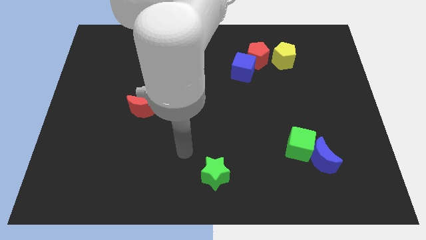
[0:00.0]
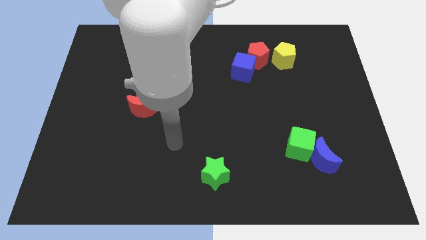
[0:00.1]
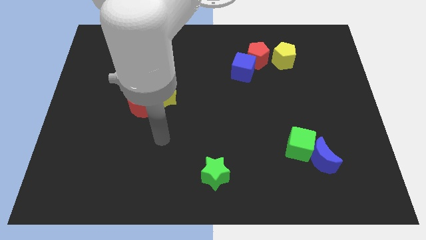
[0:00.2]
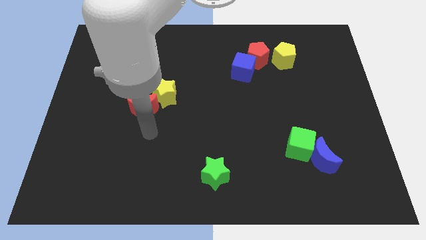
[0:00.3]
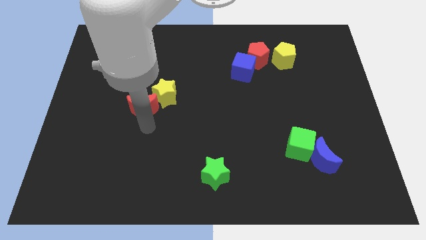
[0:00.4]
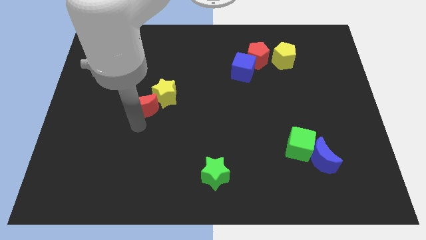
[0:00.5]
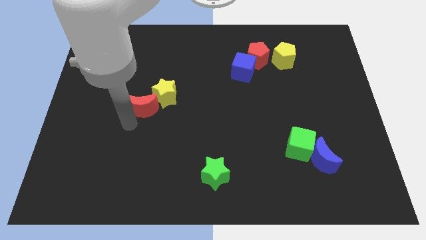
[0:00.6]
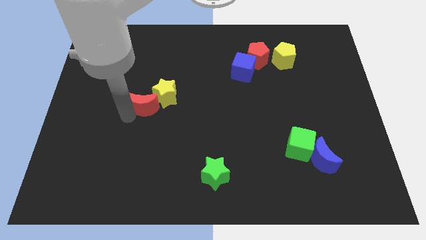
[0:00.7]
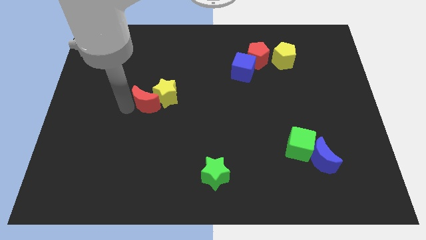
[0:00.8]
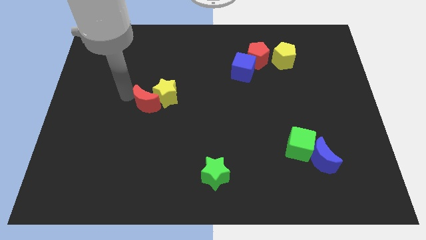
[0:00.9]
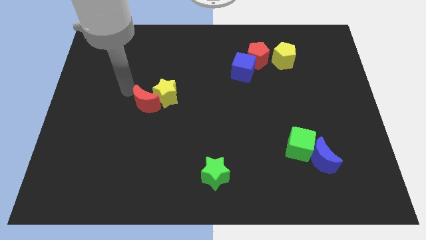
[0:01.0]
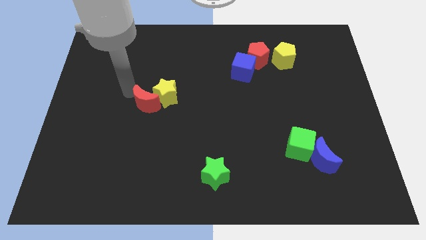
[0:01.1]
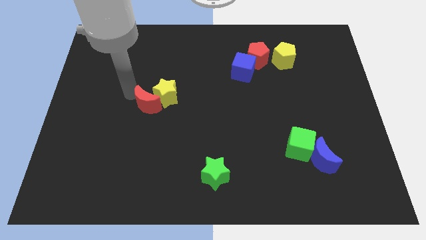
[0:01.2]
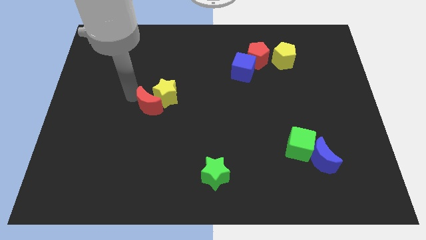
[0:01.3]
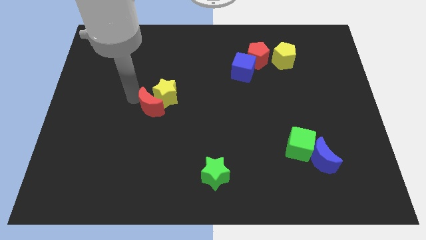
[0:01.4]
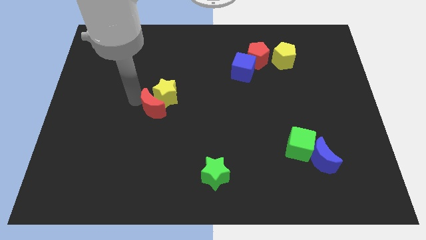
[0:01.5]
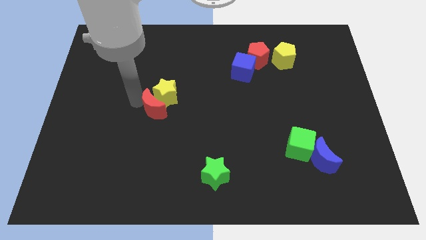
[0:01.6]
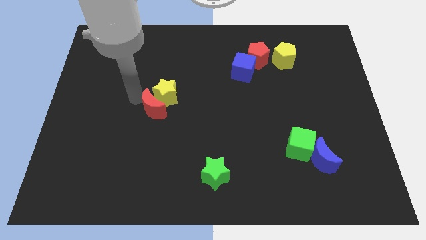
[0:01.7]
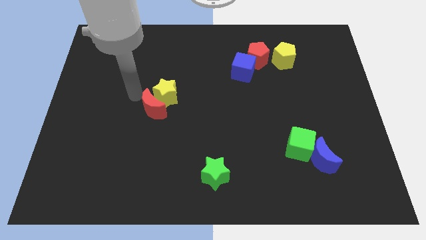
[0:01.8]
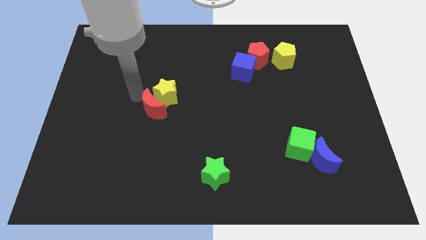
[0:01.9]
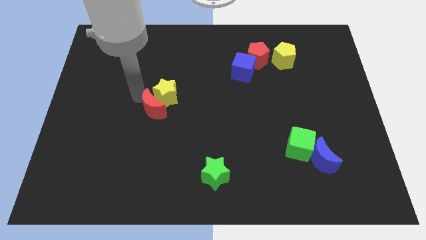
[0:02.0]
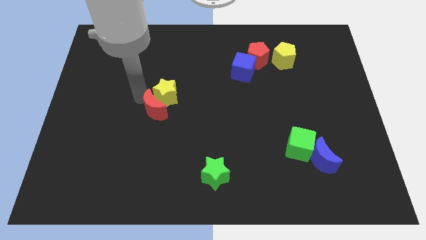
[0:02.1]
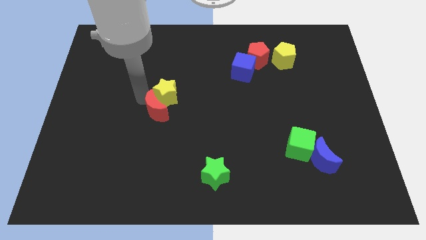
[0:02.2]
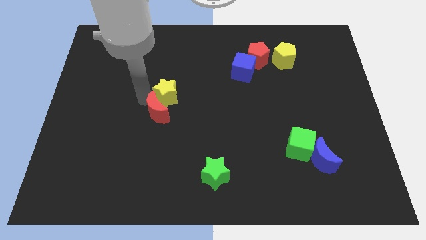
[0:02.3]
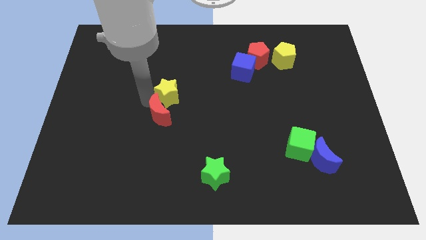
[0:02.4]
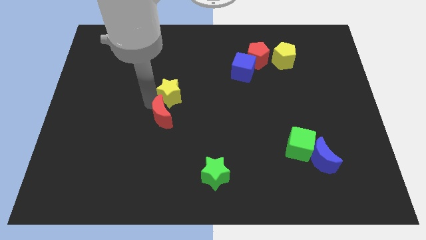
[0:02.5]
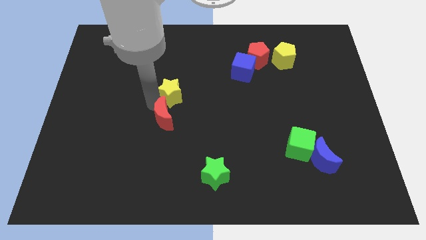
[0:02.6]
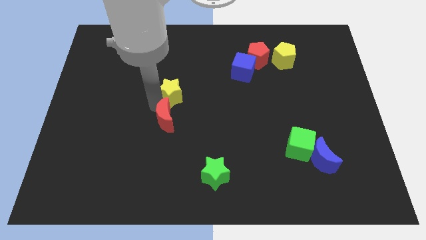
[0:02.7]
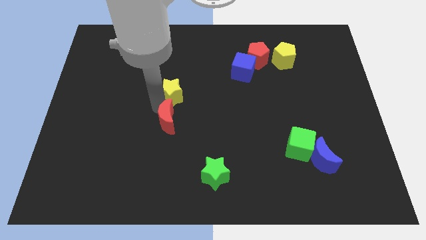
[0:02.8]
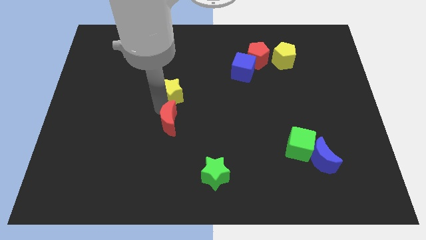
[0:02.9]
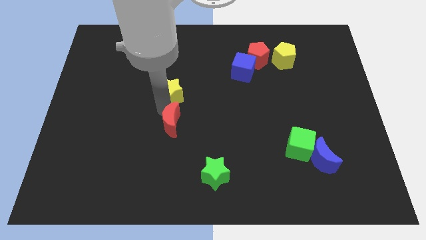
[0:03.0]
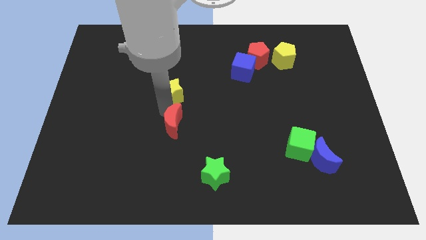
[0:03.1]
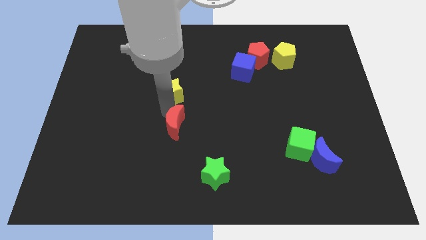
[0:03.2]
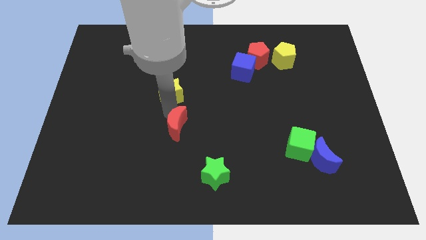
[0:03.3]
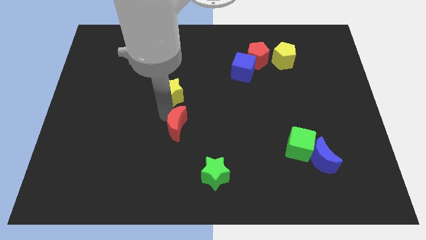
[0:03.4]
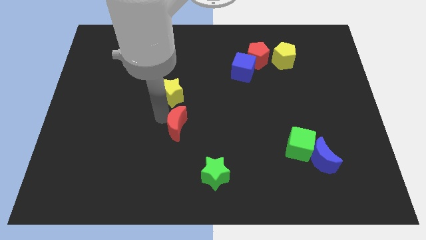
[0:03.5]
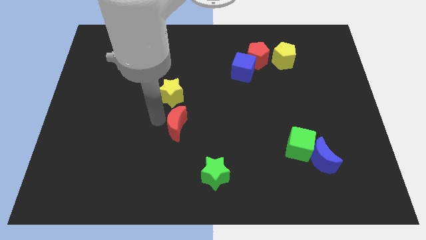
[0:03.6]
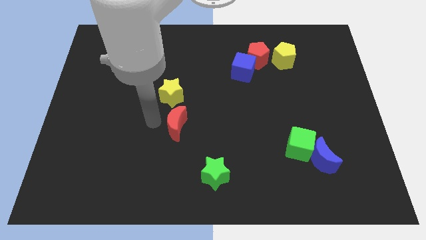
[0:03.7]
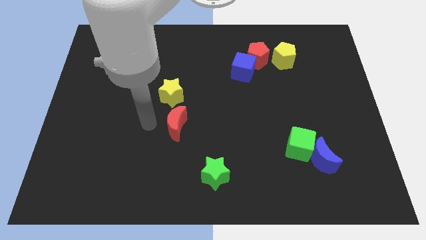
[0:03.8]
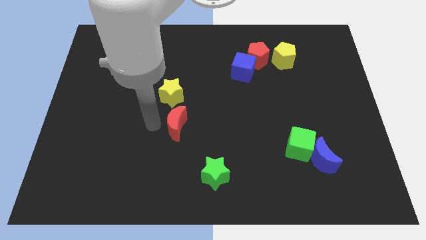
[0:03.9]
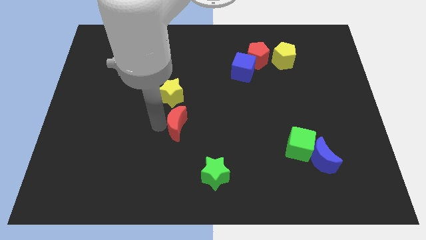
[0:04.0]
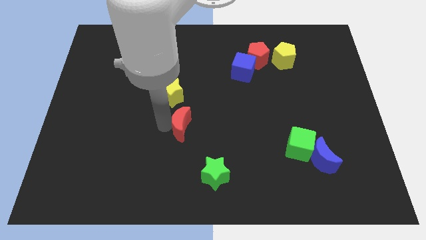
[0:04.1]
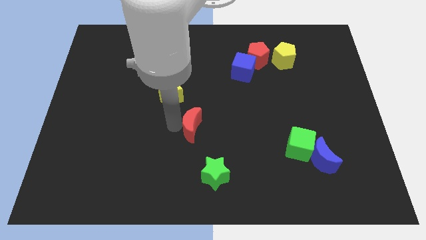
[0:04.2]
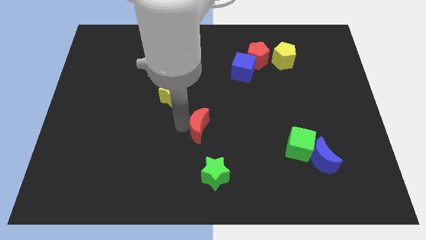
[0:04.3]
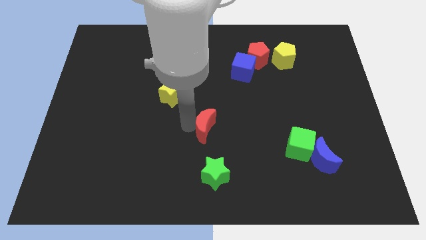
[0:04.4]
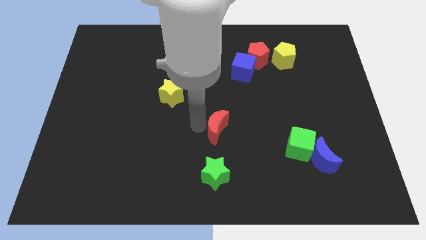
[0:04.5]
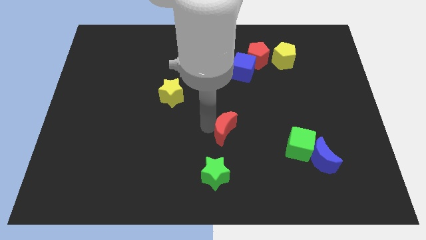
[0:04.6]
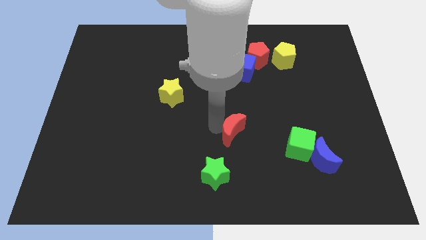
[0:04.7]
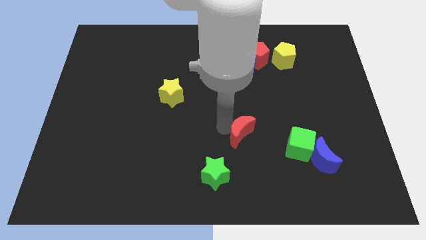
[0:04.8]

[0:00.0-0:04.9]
move the red moon left of the green cube

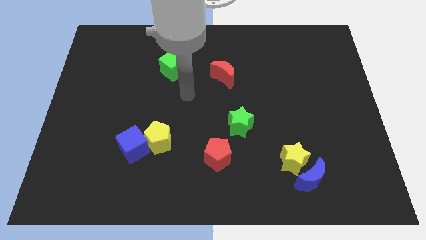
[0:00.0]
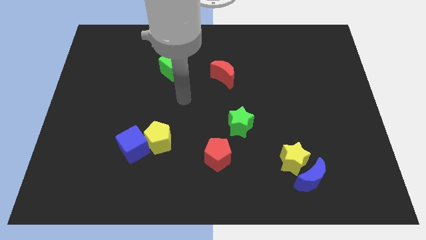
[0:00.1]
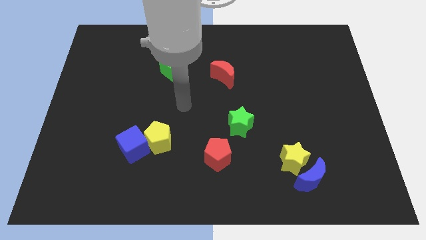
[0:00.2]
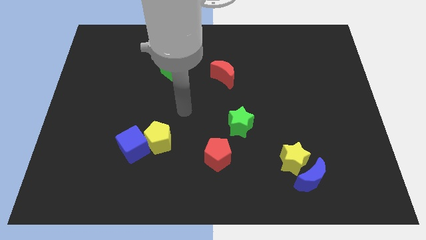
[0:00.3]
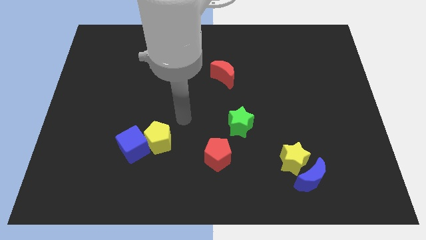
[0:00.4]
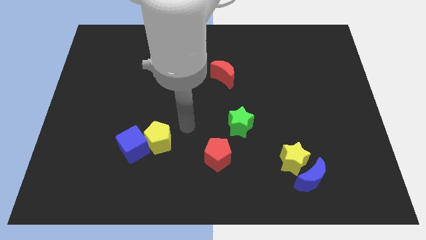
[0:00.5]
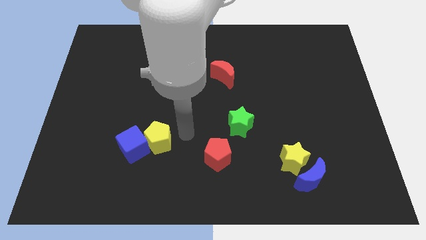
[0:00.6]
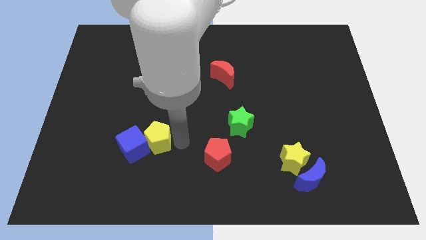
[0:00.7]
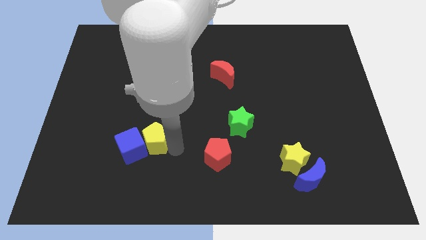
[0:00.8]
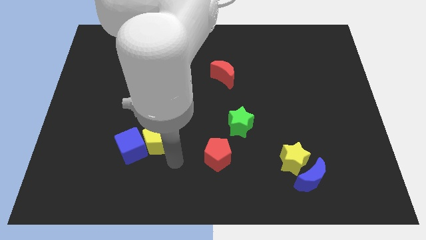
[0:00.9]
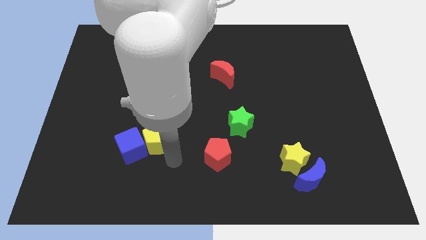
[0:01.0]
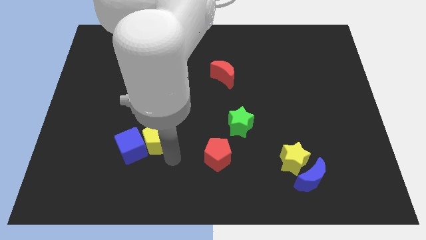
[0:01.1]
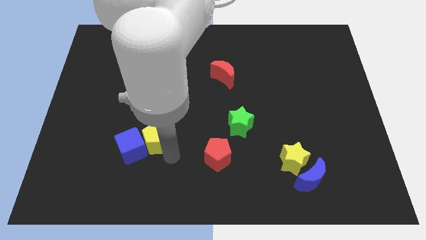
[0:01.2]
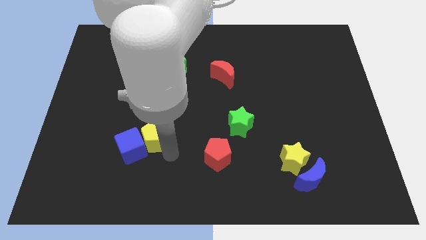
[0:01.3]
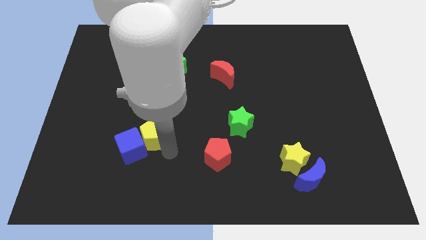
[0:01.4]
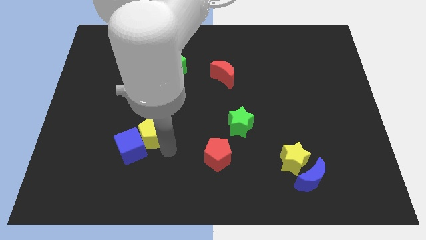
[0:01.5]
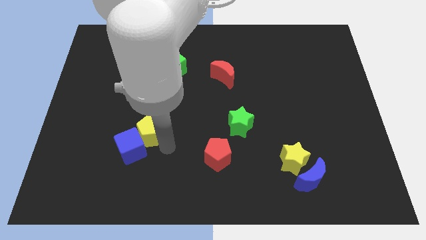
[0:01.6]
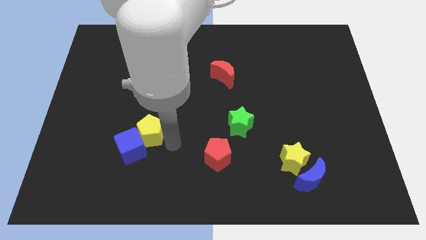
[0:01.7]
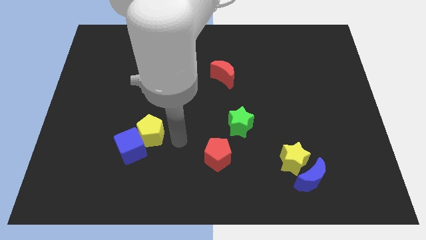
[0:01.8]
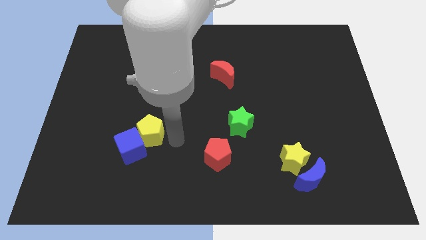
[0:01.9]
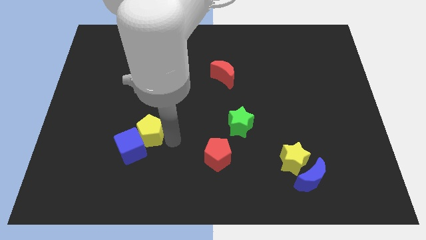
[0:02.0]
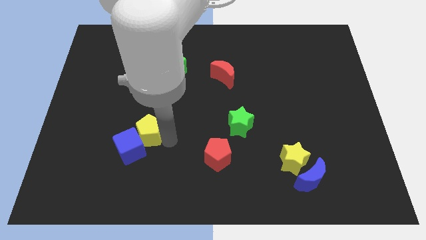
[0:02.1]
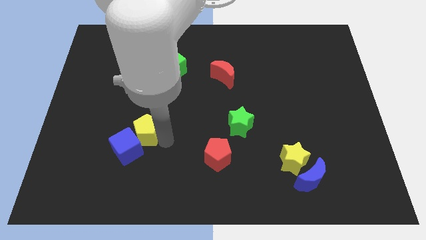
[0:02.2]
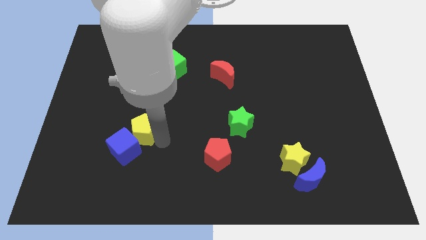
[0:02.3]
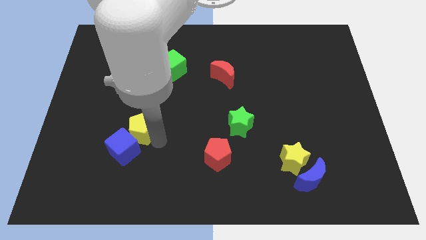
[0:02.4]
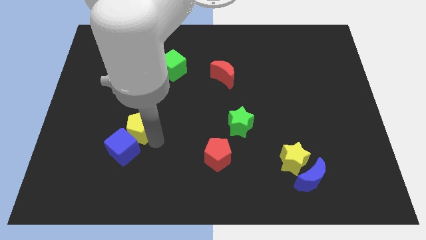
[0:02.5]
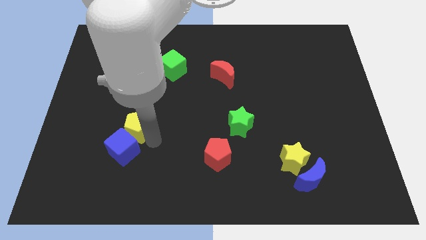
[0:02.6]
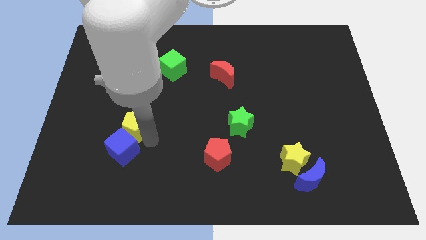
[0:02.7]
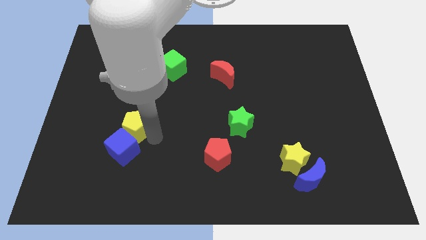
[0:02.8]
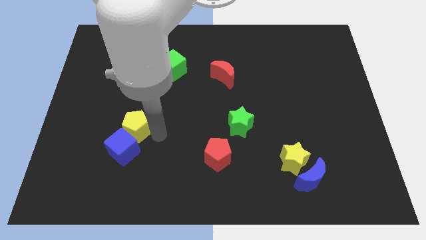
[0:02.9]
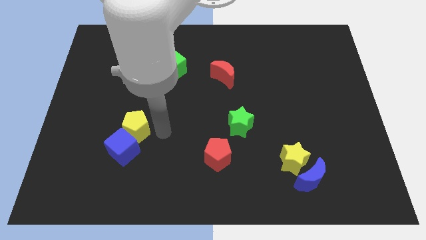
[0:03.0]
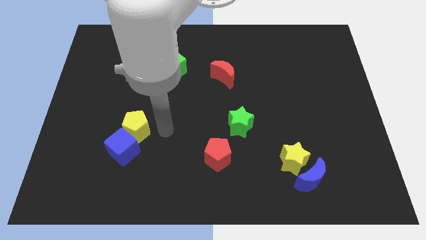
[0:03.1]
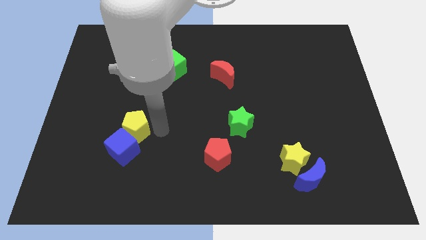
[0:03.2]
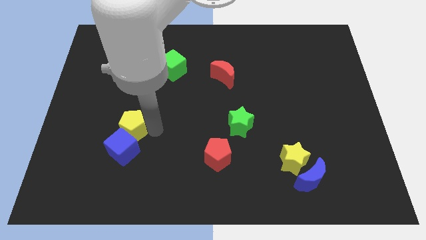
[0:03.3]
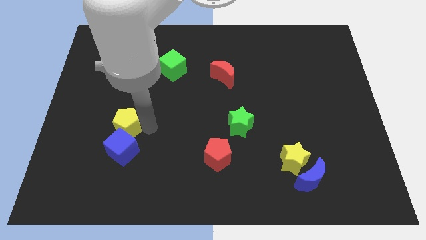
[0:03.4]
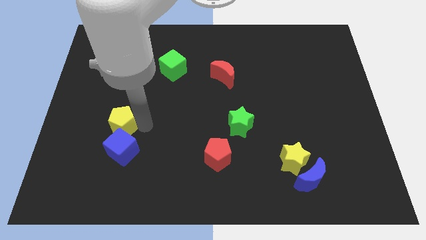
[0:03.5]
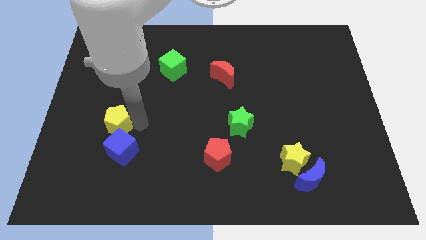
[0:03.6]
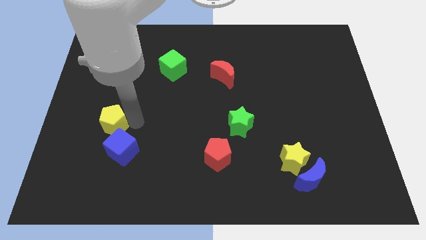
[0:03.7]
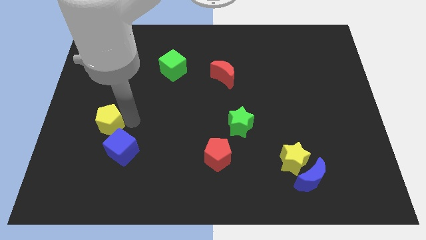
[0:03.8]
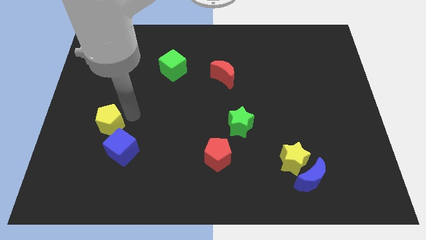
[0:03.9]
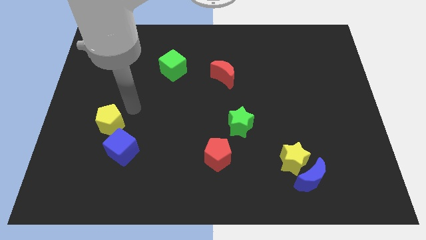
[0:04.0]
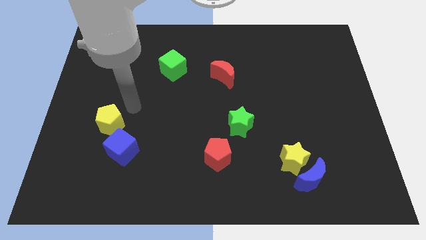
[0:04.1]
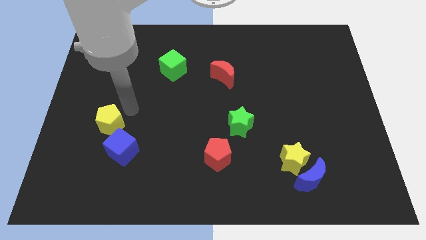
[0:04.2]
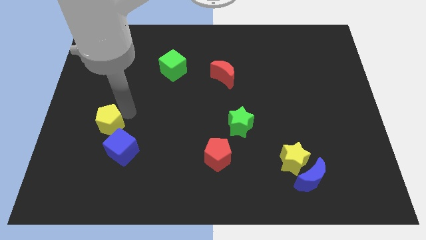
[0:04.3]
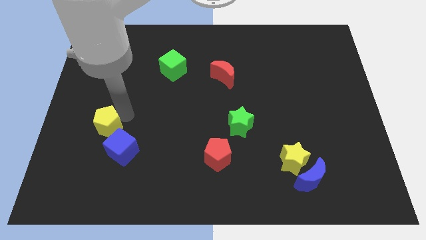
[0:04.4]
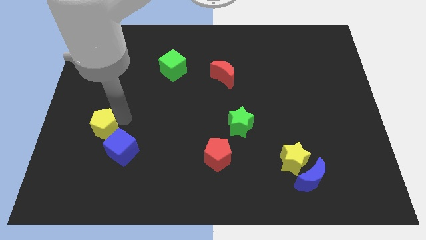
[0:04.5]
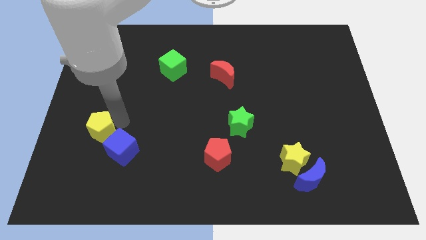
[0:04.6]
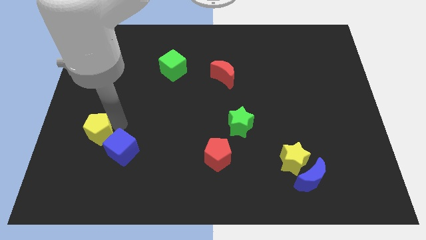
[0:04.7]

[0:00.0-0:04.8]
slide the yellow pentagon just left of the blue cube
